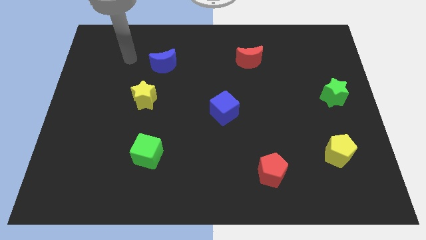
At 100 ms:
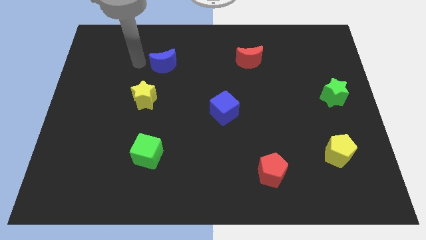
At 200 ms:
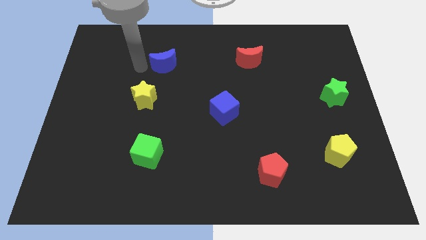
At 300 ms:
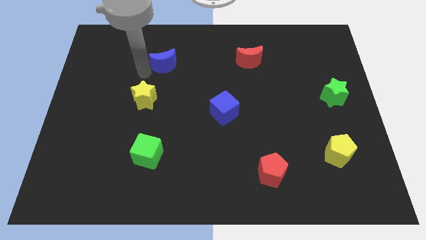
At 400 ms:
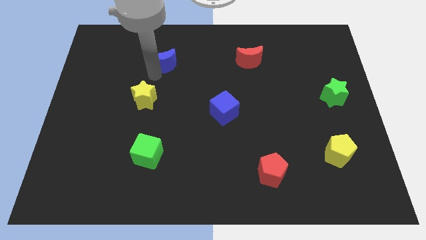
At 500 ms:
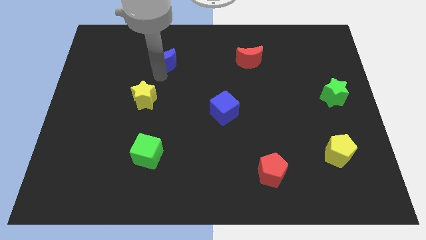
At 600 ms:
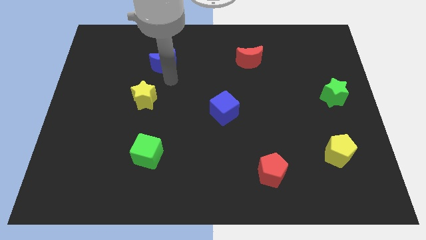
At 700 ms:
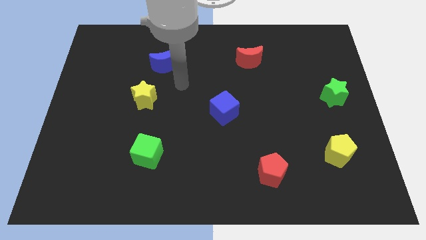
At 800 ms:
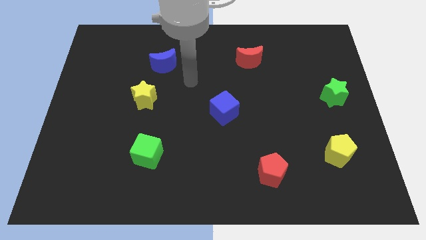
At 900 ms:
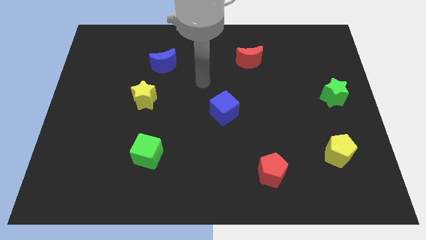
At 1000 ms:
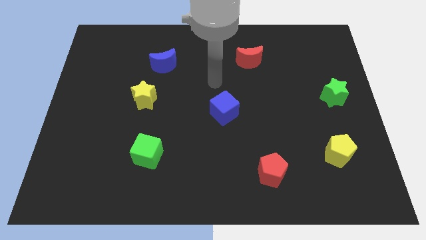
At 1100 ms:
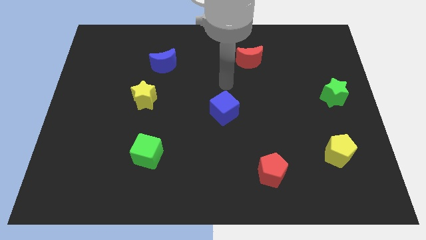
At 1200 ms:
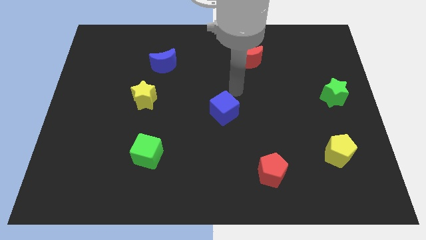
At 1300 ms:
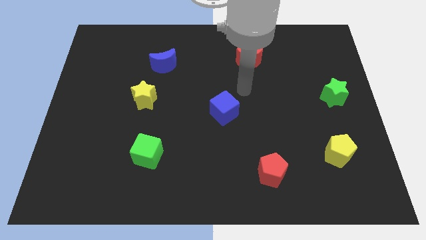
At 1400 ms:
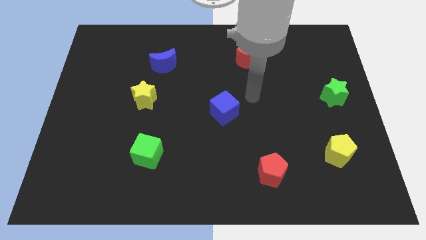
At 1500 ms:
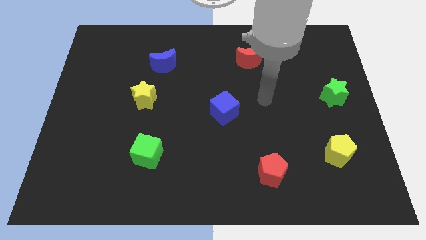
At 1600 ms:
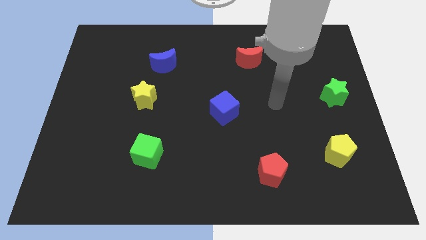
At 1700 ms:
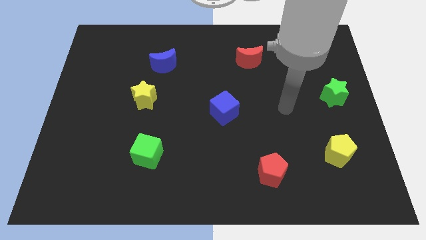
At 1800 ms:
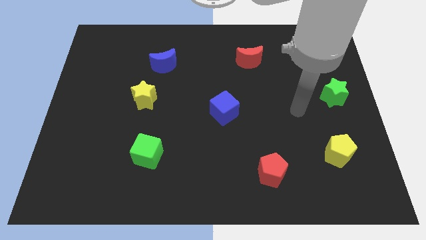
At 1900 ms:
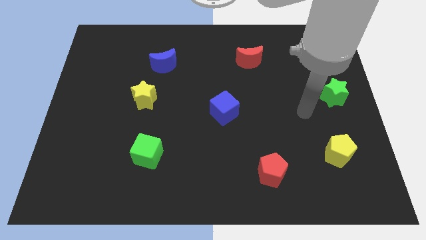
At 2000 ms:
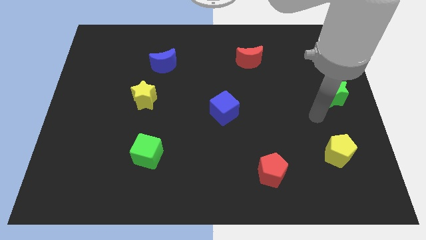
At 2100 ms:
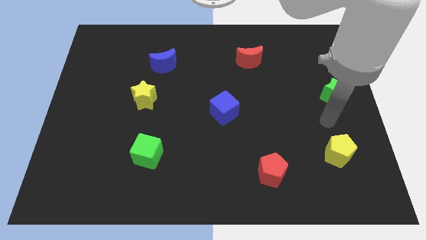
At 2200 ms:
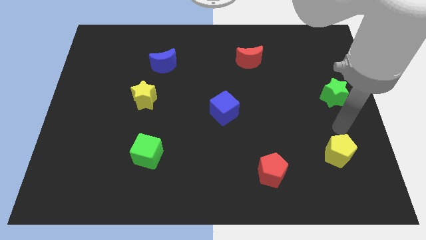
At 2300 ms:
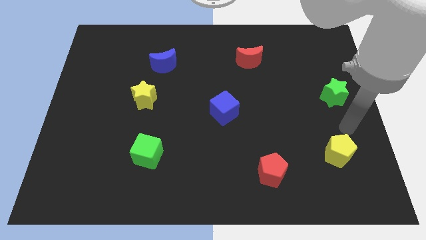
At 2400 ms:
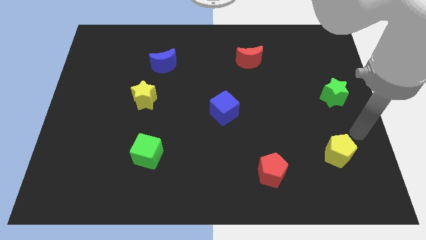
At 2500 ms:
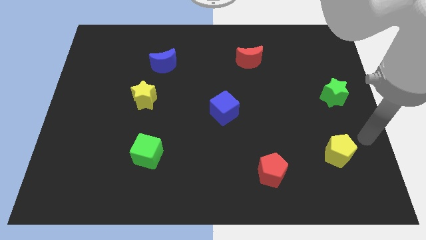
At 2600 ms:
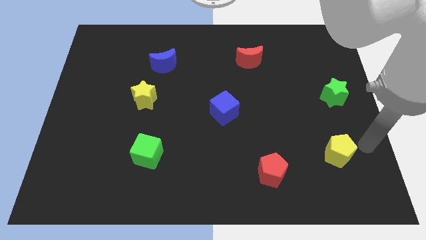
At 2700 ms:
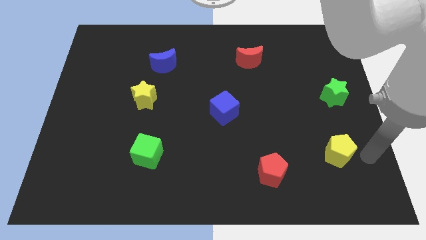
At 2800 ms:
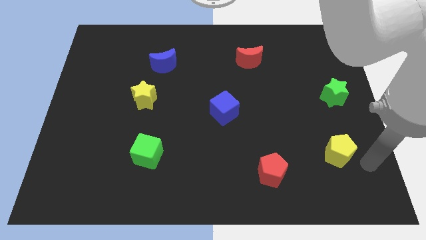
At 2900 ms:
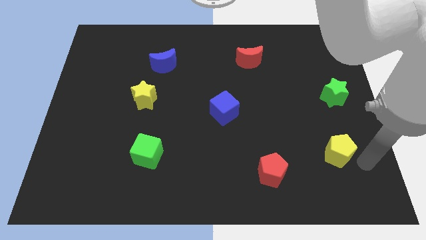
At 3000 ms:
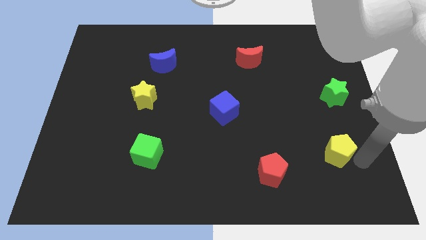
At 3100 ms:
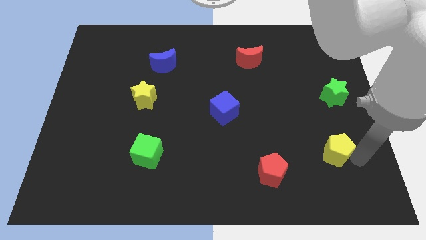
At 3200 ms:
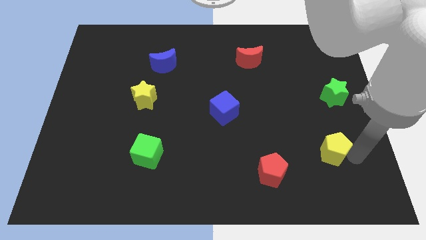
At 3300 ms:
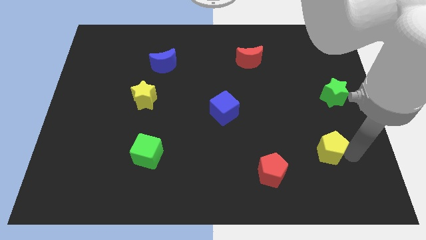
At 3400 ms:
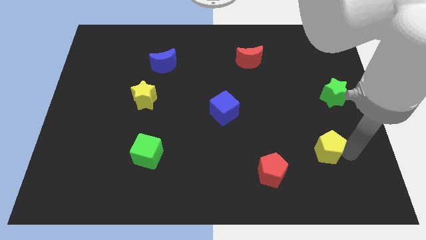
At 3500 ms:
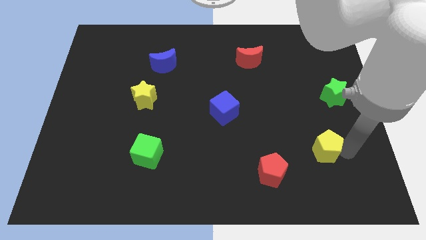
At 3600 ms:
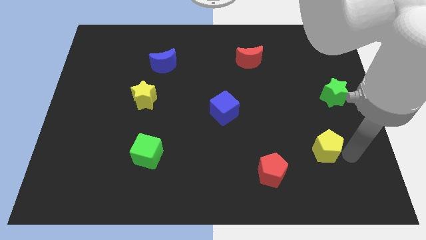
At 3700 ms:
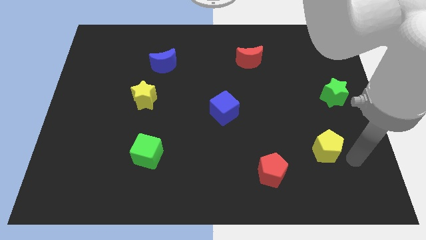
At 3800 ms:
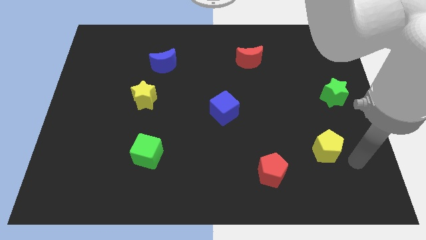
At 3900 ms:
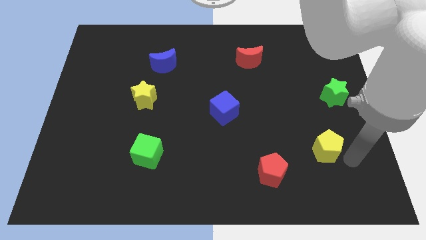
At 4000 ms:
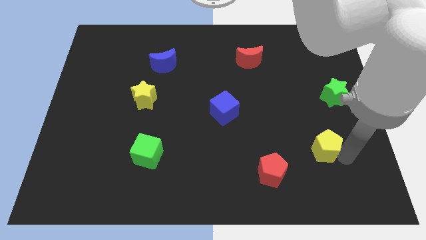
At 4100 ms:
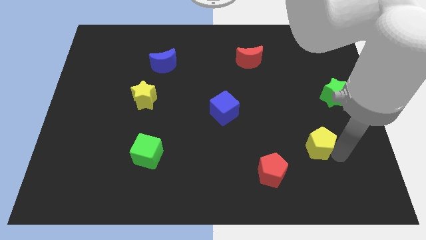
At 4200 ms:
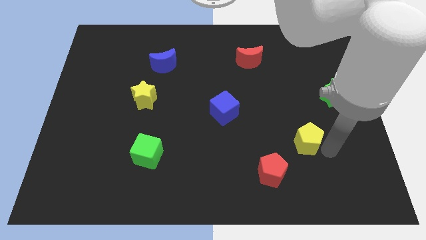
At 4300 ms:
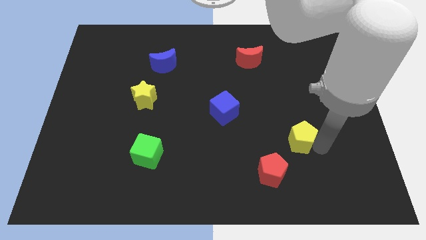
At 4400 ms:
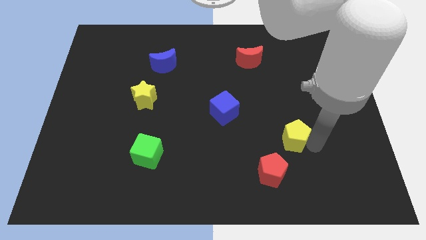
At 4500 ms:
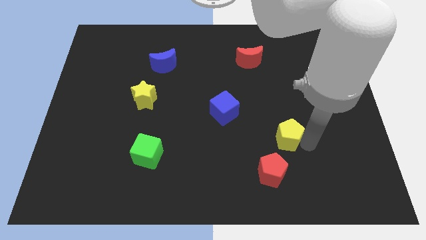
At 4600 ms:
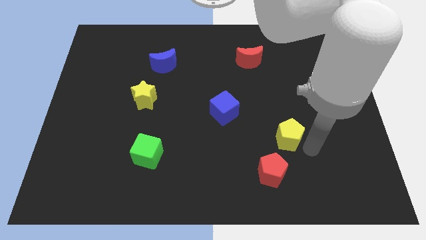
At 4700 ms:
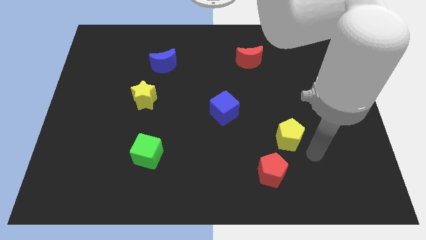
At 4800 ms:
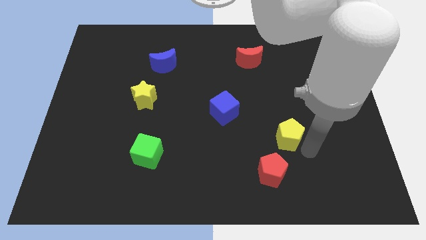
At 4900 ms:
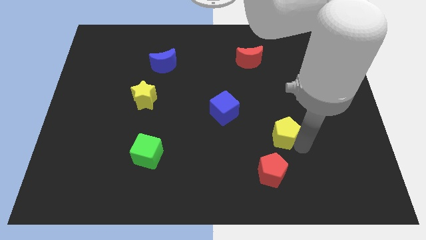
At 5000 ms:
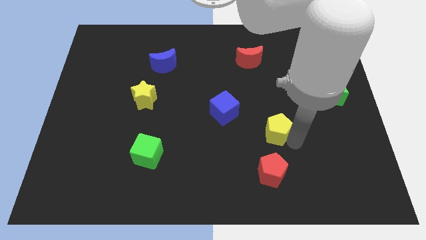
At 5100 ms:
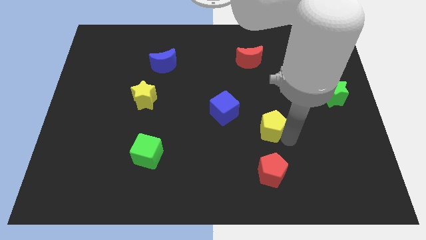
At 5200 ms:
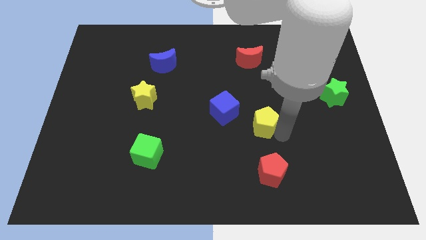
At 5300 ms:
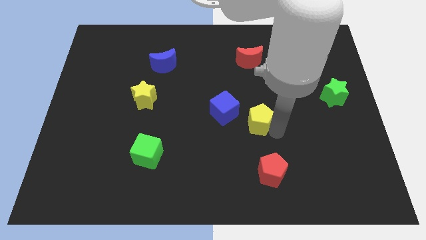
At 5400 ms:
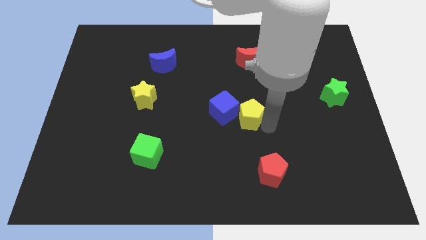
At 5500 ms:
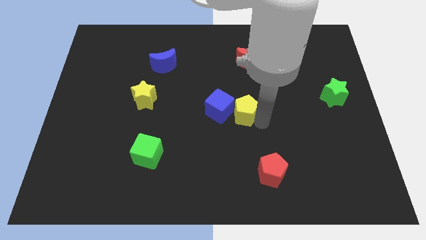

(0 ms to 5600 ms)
push the yellow pentagon towards the blue cube

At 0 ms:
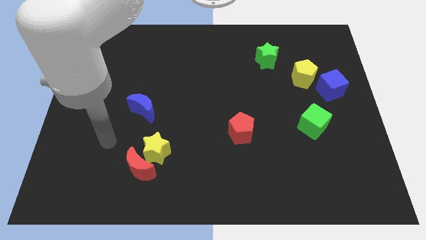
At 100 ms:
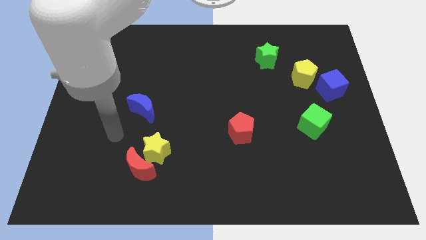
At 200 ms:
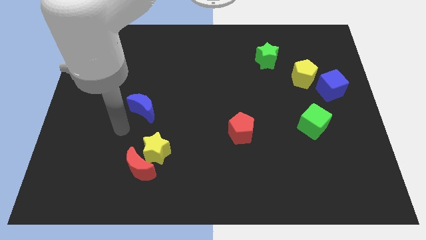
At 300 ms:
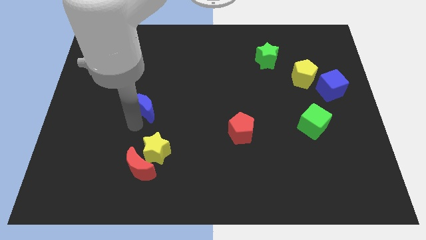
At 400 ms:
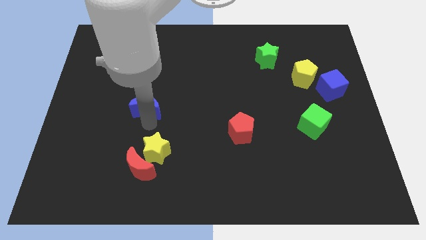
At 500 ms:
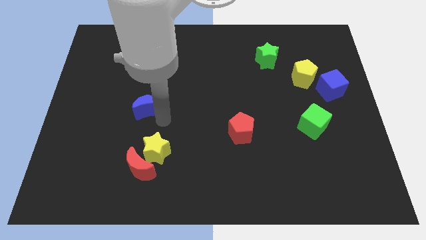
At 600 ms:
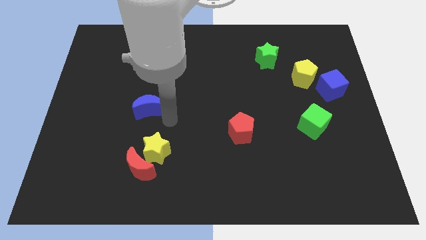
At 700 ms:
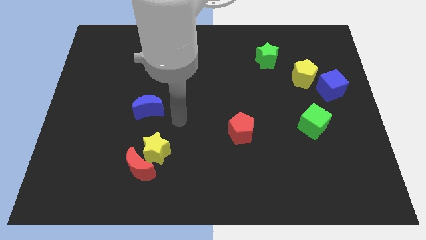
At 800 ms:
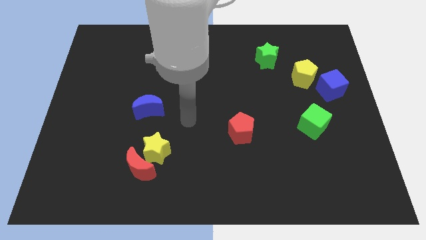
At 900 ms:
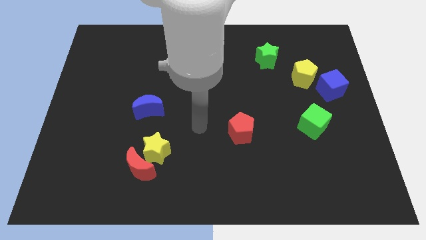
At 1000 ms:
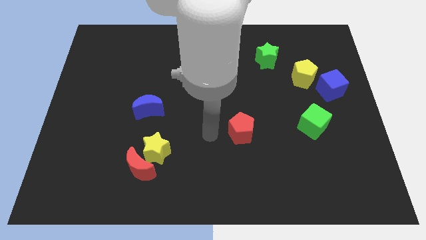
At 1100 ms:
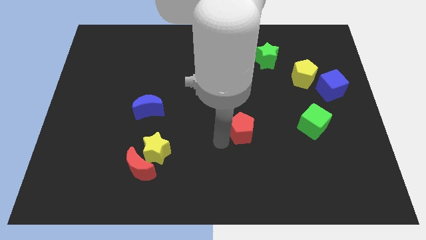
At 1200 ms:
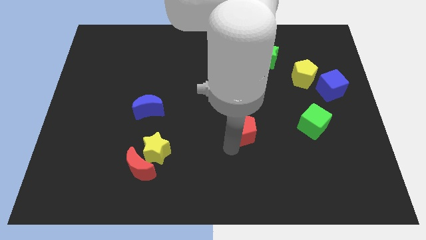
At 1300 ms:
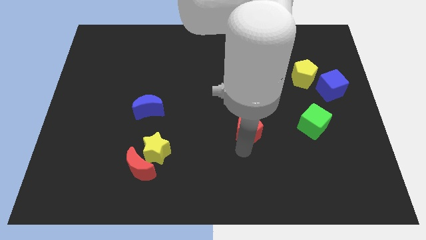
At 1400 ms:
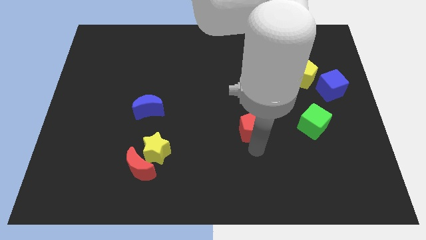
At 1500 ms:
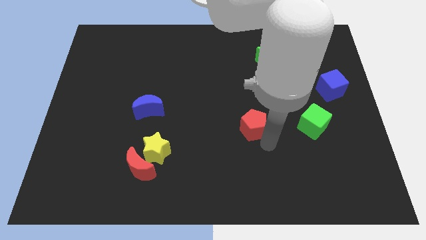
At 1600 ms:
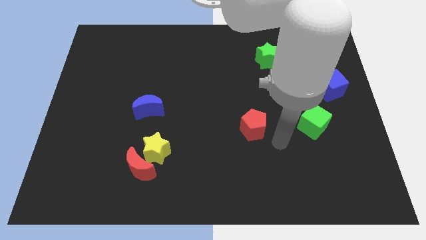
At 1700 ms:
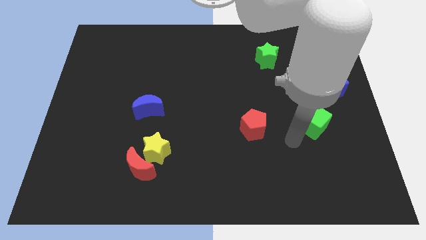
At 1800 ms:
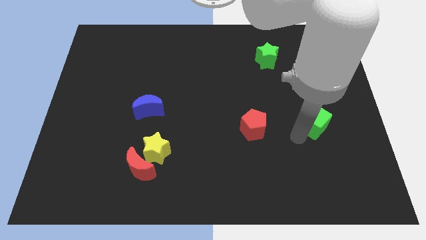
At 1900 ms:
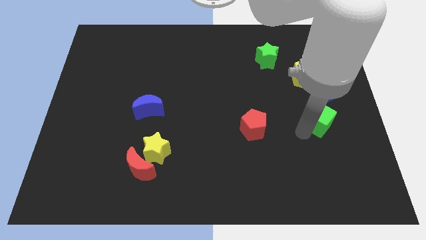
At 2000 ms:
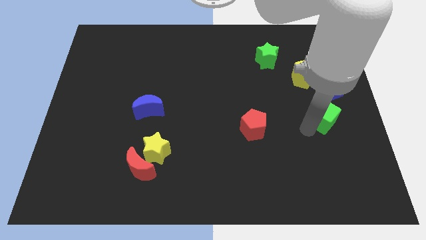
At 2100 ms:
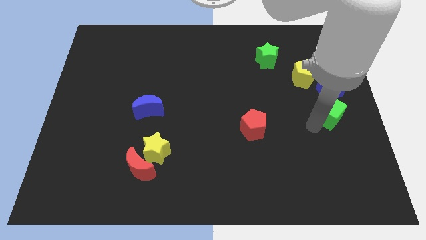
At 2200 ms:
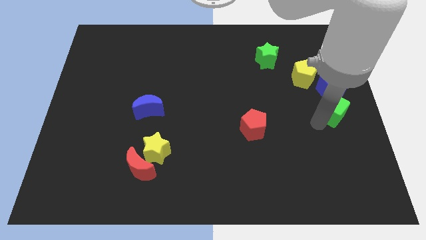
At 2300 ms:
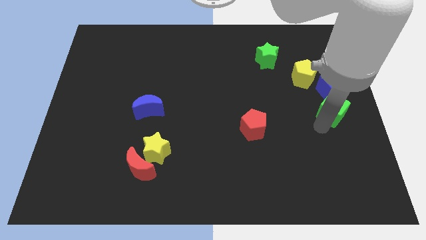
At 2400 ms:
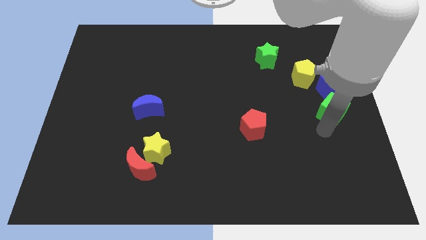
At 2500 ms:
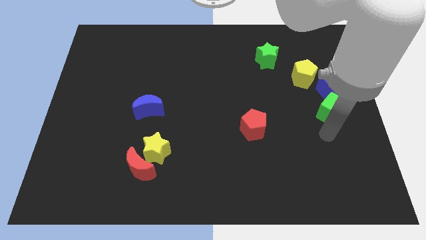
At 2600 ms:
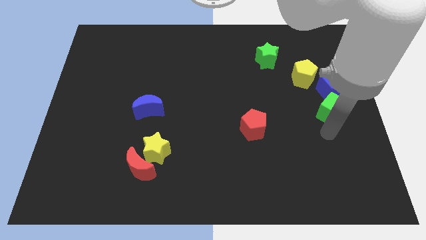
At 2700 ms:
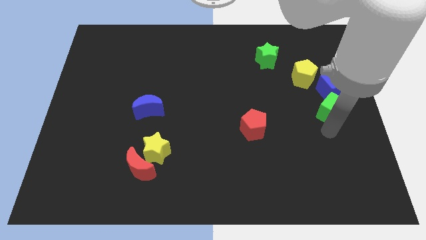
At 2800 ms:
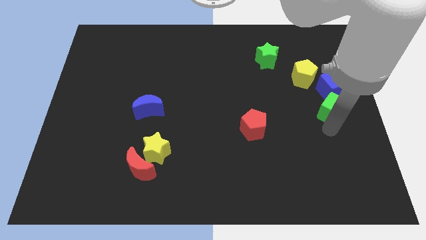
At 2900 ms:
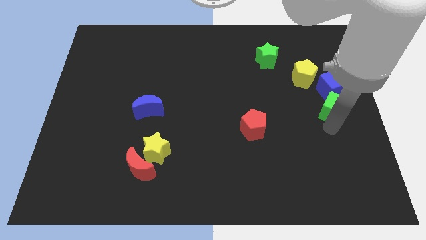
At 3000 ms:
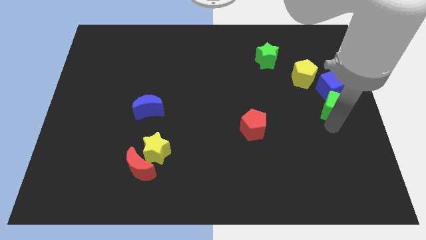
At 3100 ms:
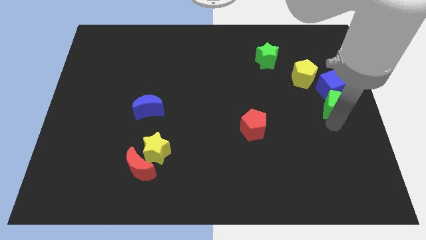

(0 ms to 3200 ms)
move the green cube close to the blue cube
